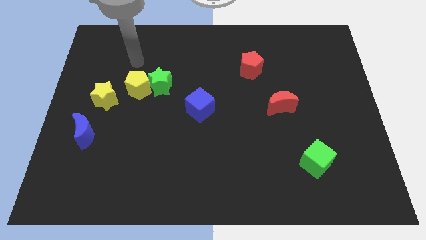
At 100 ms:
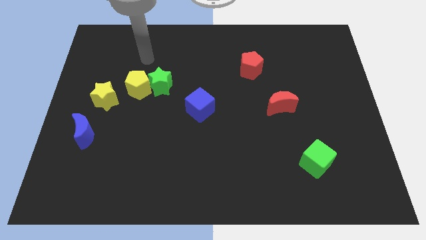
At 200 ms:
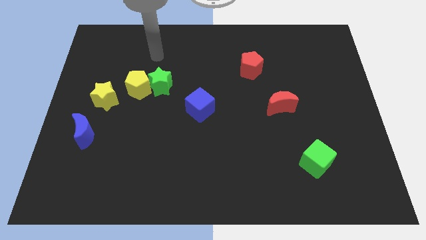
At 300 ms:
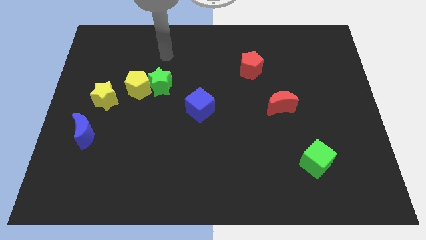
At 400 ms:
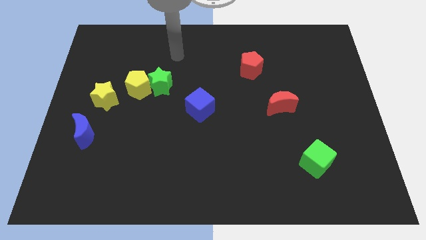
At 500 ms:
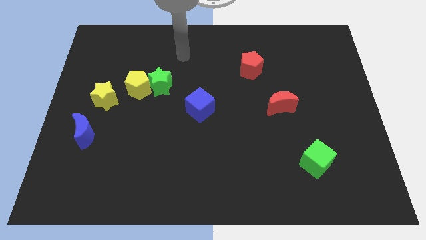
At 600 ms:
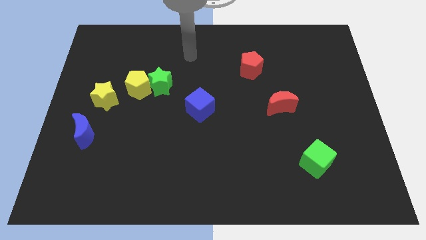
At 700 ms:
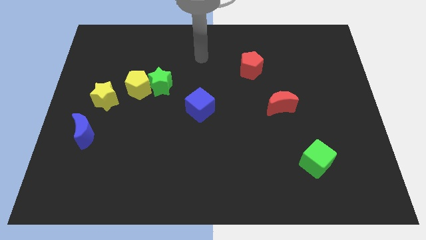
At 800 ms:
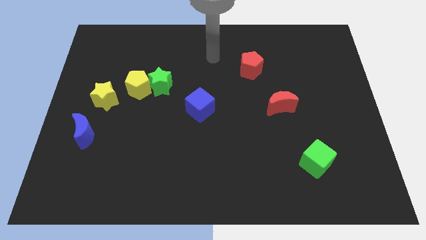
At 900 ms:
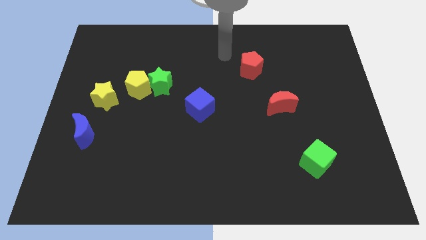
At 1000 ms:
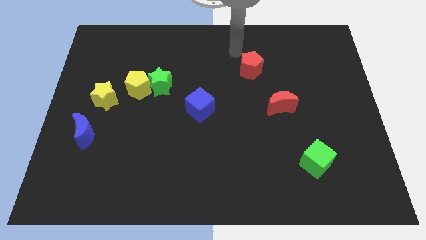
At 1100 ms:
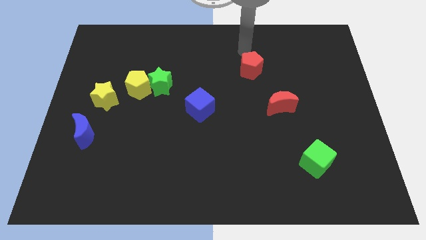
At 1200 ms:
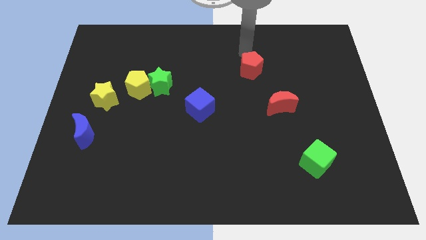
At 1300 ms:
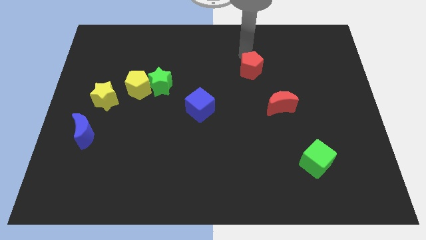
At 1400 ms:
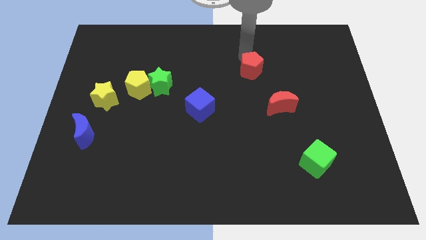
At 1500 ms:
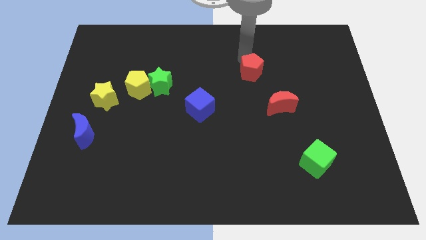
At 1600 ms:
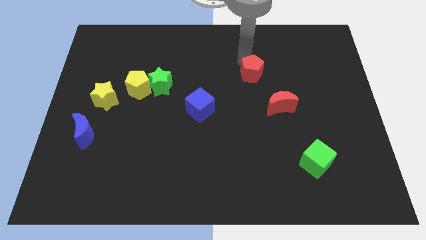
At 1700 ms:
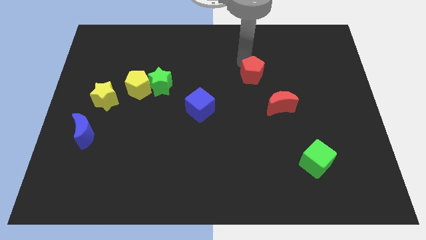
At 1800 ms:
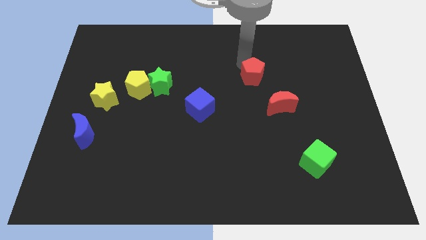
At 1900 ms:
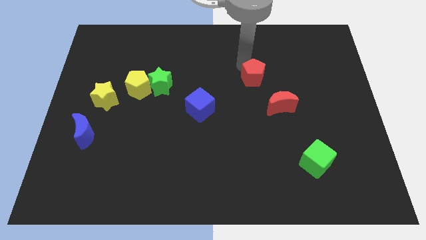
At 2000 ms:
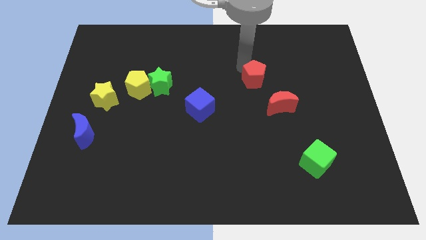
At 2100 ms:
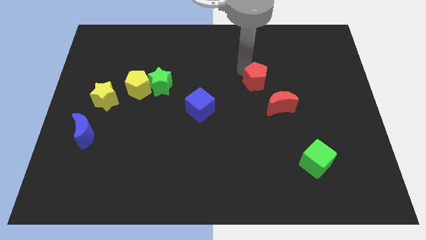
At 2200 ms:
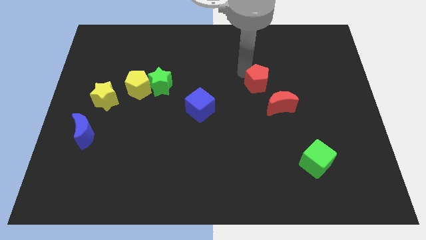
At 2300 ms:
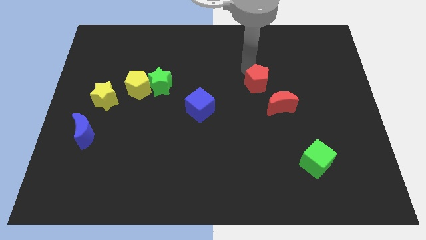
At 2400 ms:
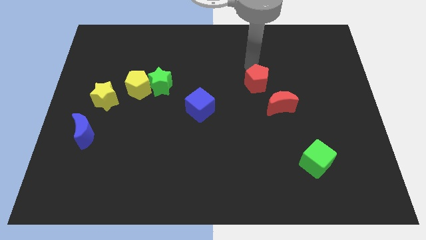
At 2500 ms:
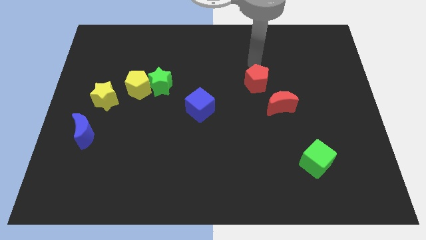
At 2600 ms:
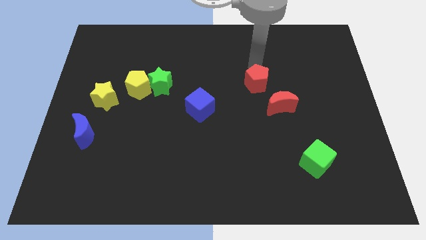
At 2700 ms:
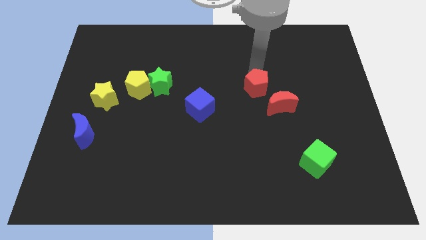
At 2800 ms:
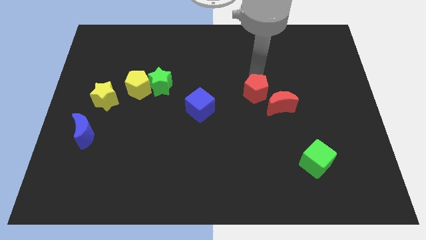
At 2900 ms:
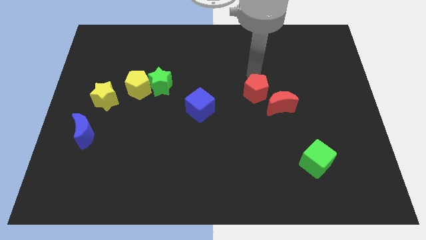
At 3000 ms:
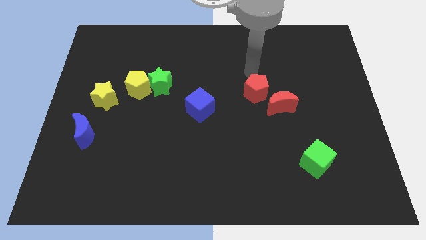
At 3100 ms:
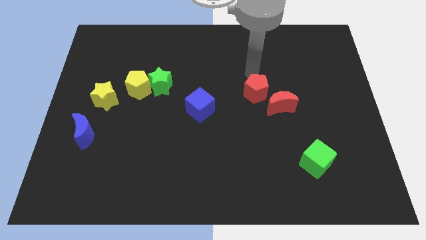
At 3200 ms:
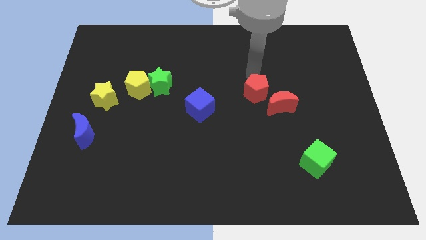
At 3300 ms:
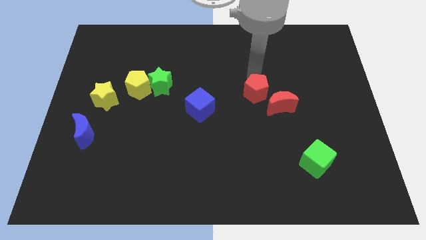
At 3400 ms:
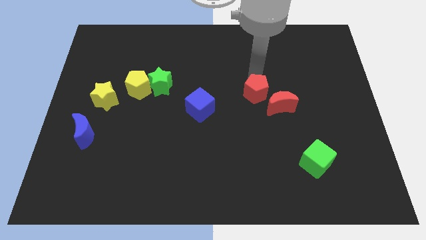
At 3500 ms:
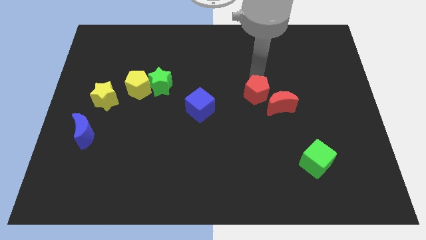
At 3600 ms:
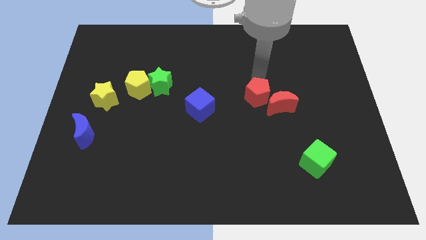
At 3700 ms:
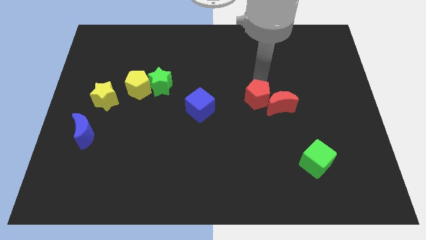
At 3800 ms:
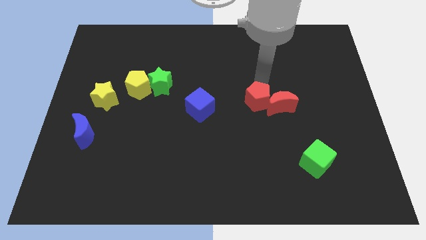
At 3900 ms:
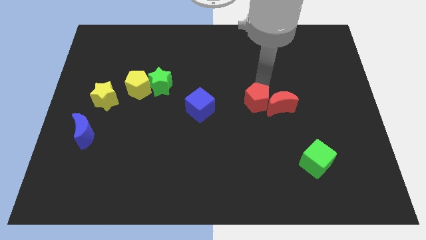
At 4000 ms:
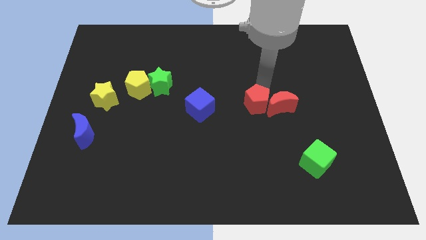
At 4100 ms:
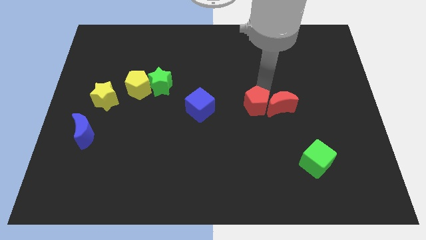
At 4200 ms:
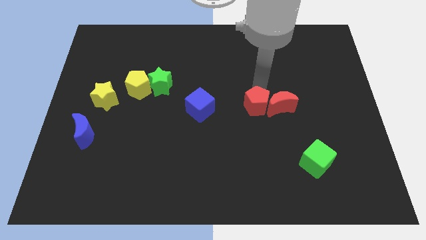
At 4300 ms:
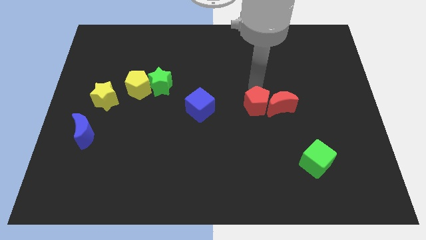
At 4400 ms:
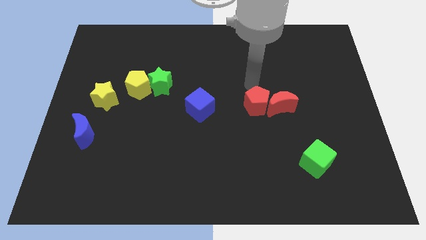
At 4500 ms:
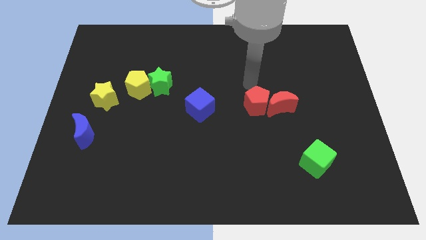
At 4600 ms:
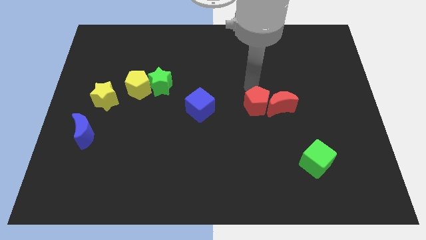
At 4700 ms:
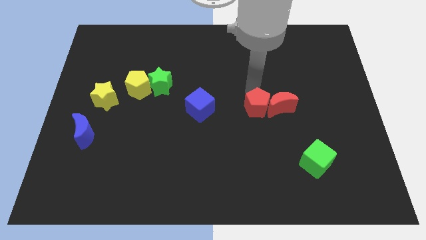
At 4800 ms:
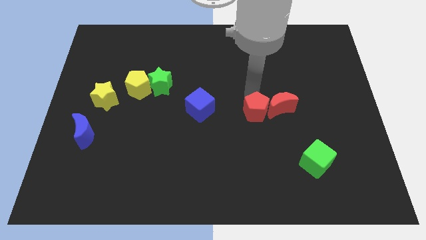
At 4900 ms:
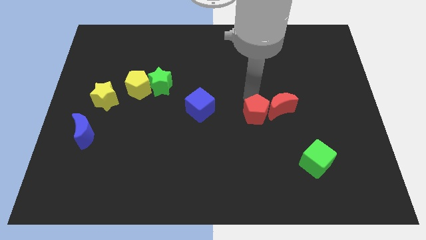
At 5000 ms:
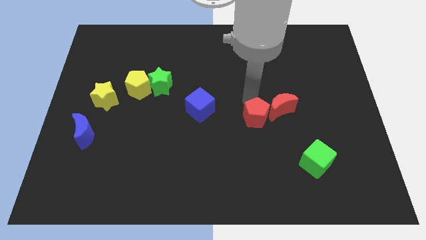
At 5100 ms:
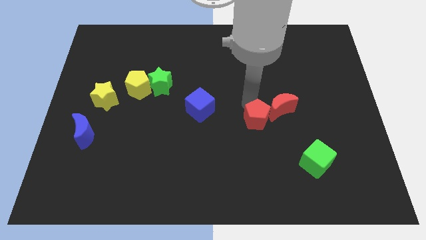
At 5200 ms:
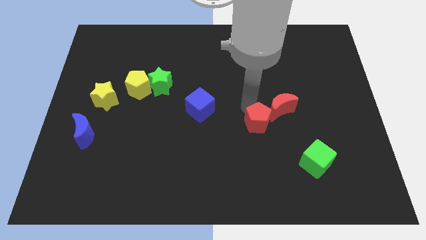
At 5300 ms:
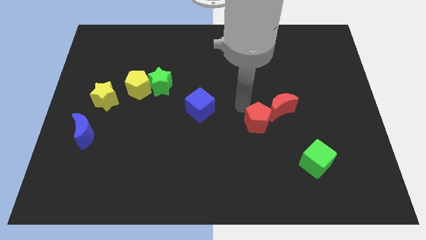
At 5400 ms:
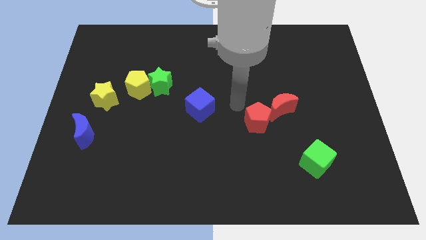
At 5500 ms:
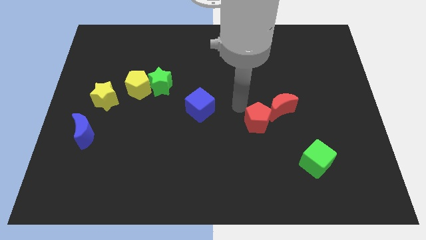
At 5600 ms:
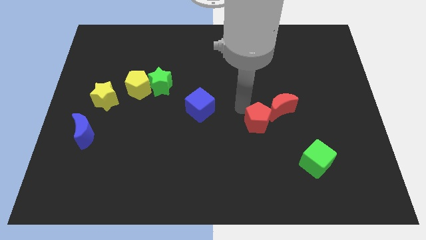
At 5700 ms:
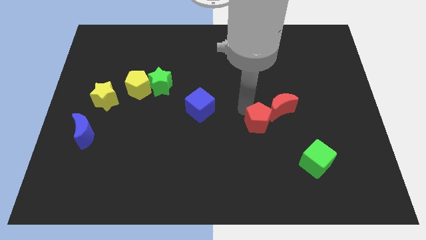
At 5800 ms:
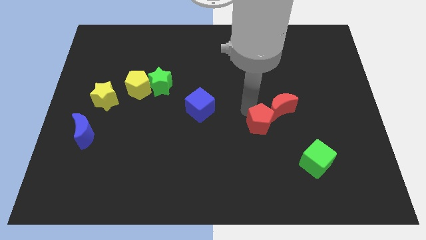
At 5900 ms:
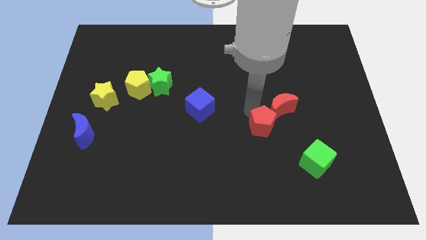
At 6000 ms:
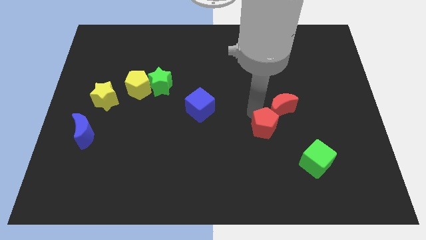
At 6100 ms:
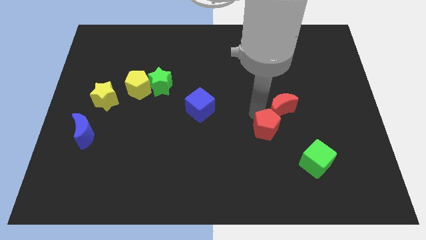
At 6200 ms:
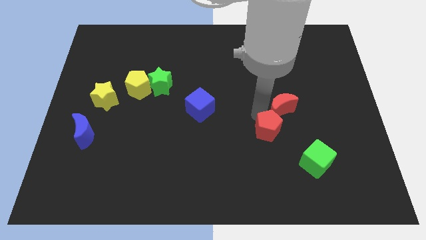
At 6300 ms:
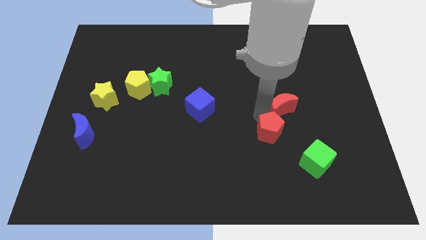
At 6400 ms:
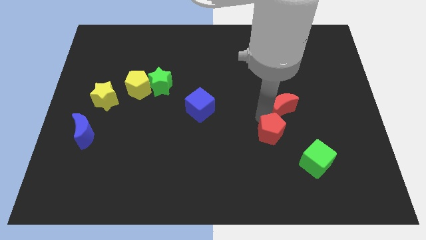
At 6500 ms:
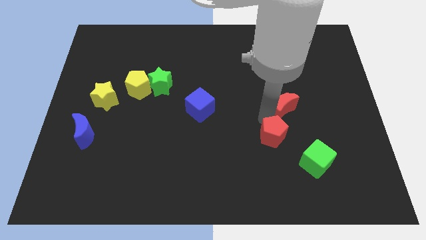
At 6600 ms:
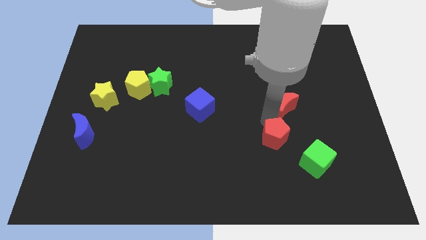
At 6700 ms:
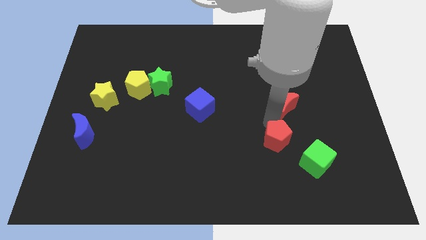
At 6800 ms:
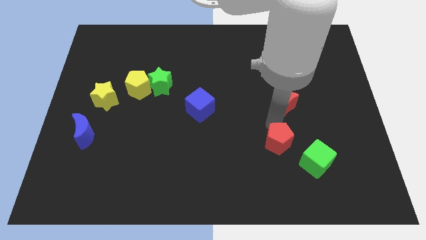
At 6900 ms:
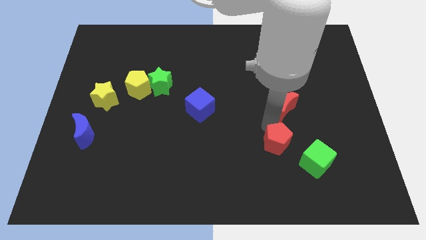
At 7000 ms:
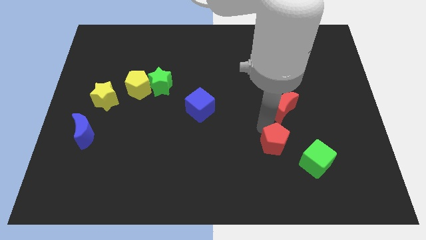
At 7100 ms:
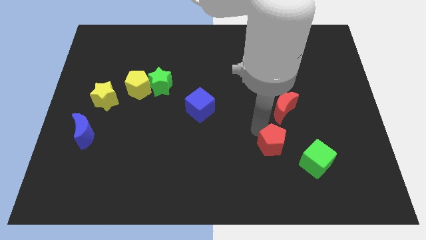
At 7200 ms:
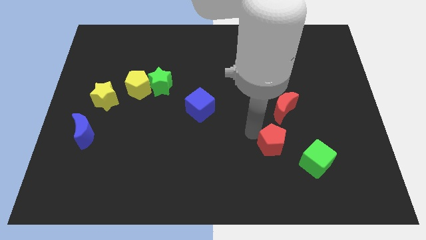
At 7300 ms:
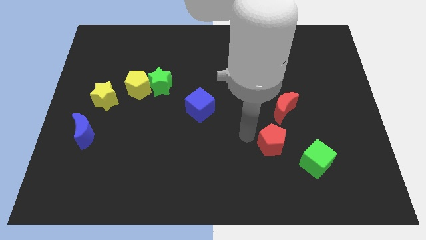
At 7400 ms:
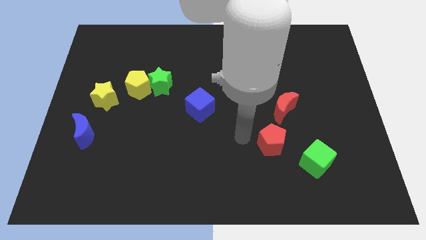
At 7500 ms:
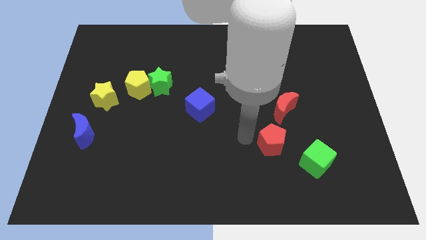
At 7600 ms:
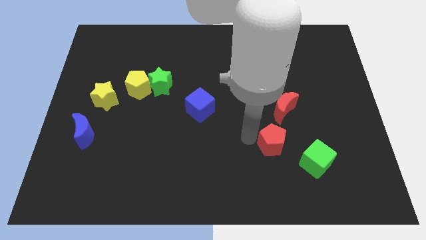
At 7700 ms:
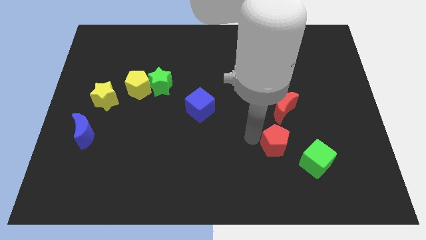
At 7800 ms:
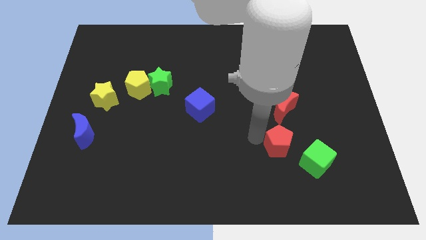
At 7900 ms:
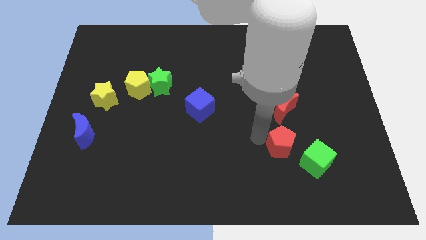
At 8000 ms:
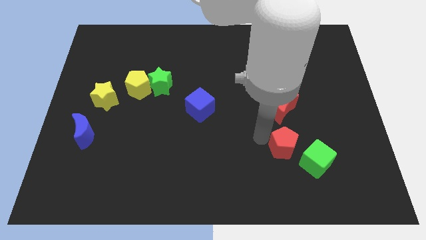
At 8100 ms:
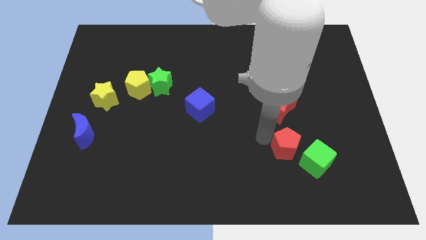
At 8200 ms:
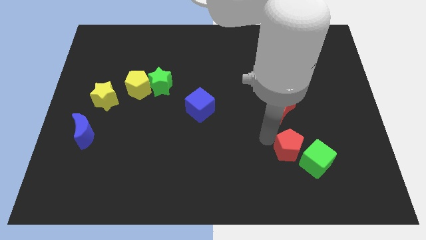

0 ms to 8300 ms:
push the red pentagon close to the green cube
